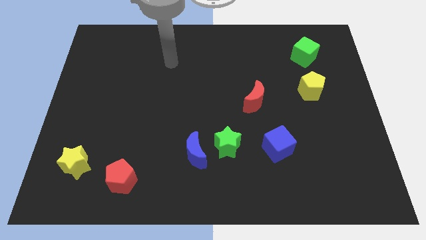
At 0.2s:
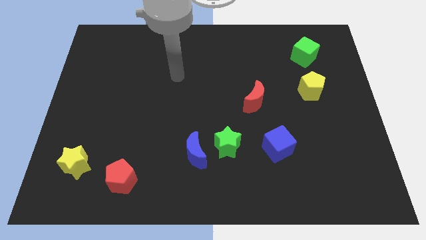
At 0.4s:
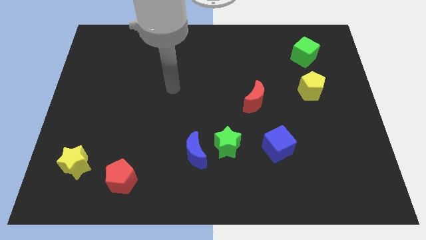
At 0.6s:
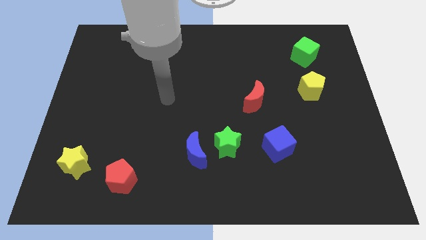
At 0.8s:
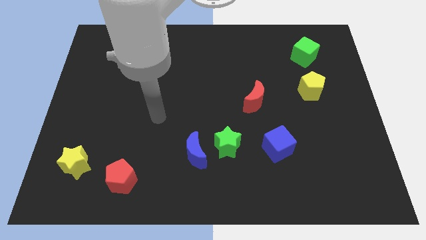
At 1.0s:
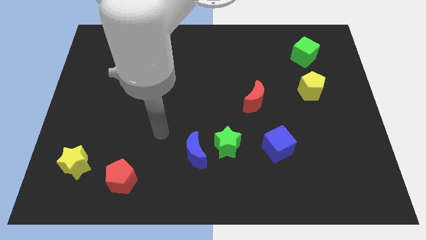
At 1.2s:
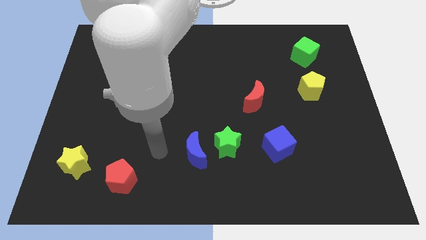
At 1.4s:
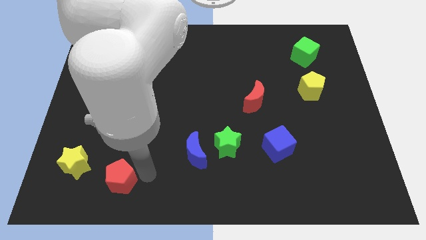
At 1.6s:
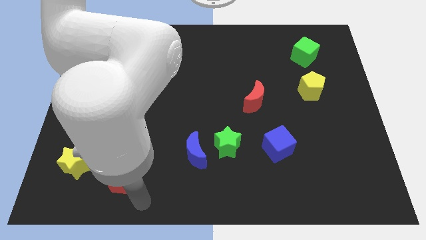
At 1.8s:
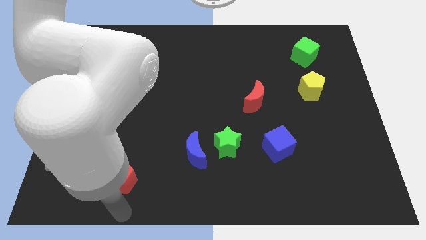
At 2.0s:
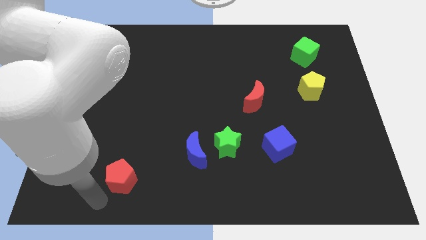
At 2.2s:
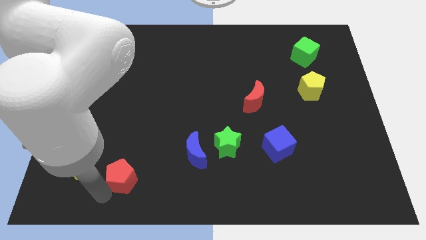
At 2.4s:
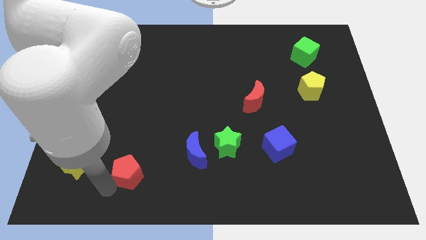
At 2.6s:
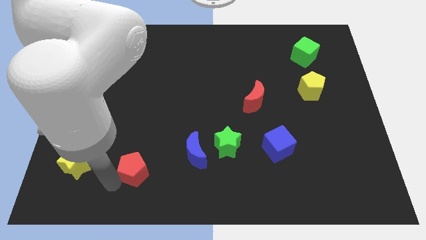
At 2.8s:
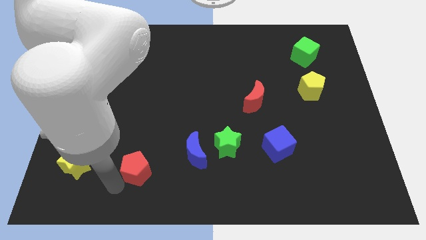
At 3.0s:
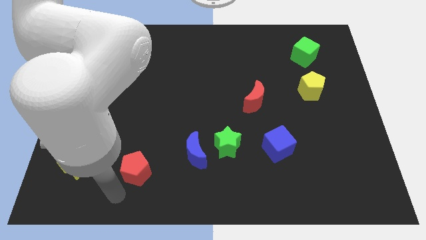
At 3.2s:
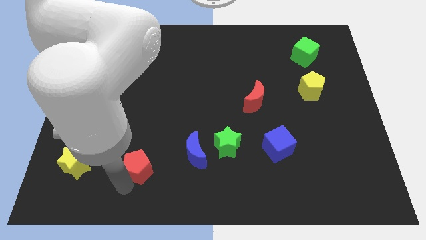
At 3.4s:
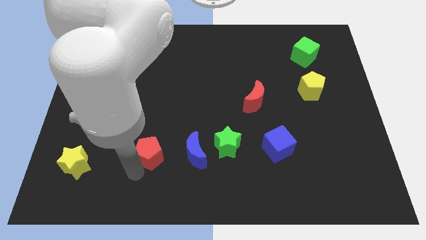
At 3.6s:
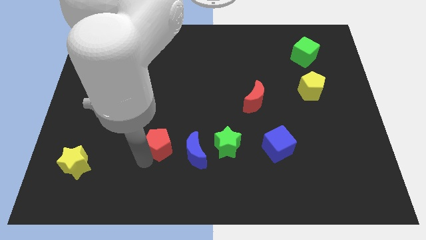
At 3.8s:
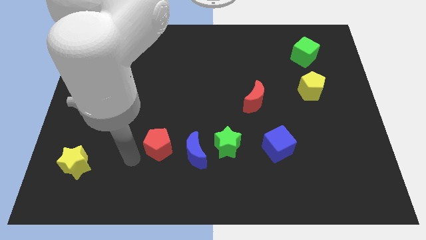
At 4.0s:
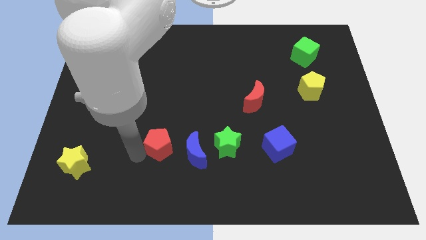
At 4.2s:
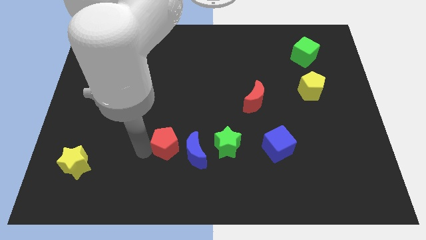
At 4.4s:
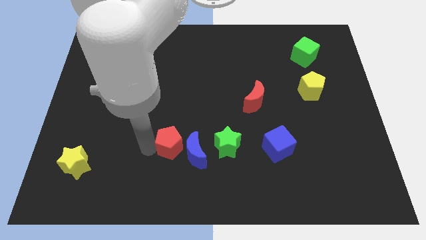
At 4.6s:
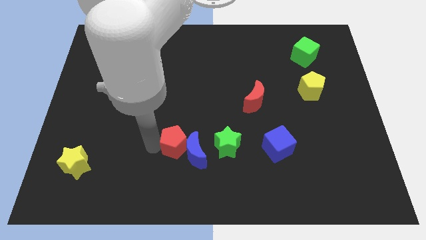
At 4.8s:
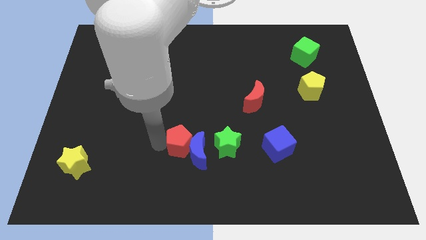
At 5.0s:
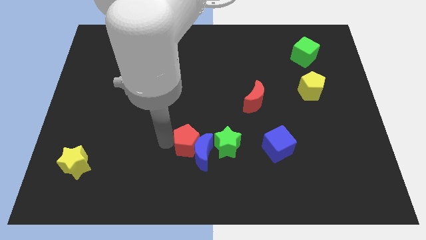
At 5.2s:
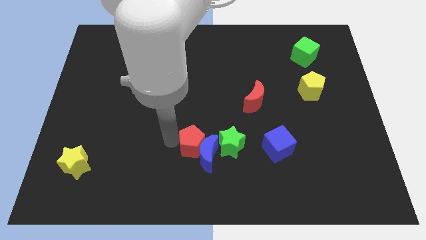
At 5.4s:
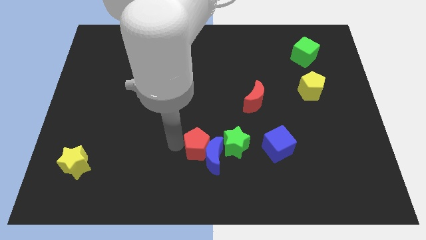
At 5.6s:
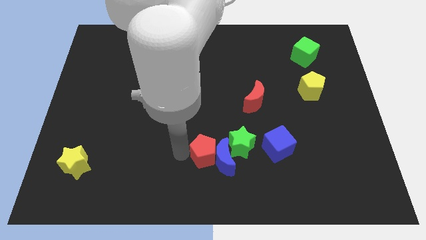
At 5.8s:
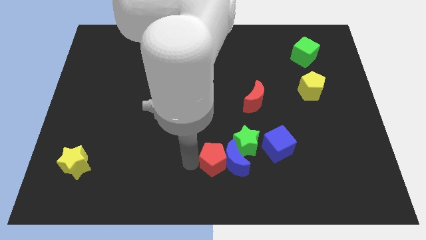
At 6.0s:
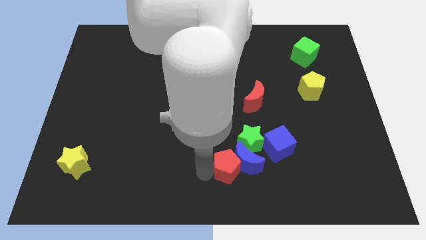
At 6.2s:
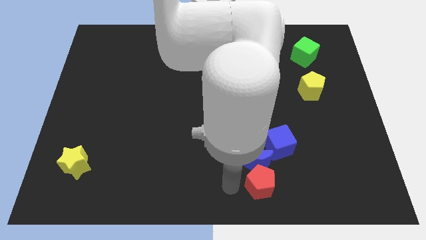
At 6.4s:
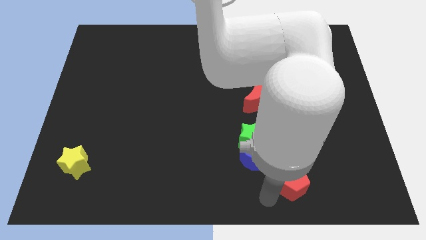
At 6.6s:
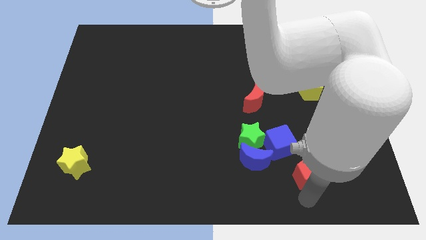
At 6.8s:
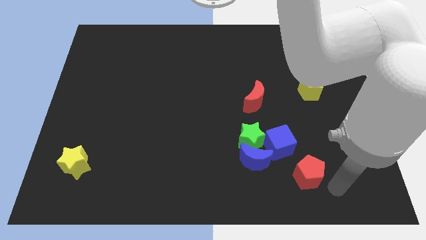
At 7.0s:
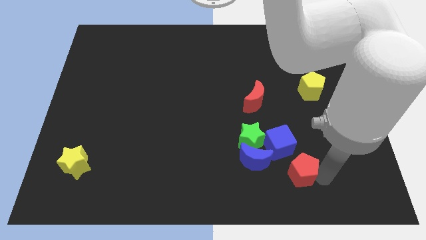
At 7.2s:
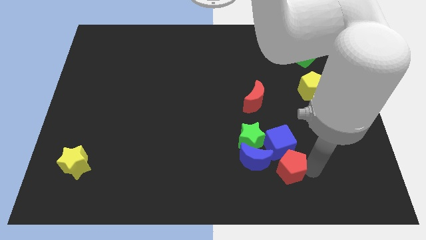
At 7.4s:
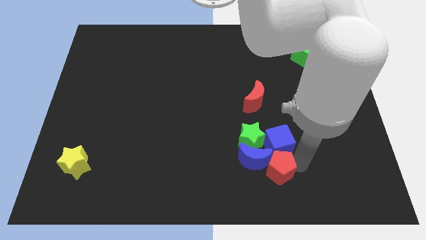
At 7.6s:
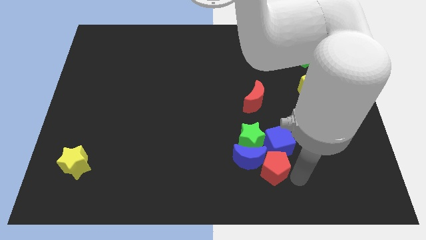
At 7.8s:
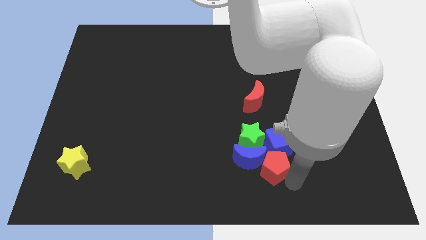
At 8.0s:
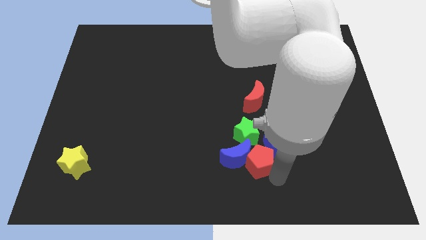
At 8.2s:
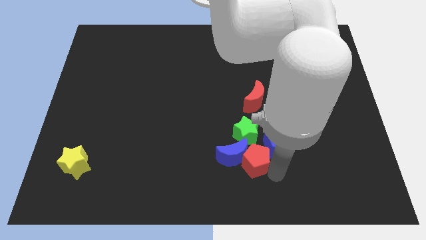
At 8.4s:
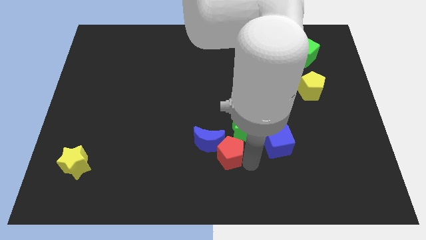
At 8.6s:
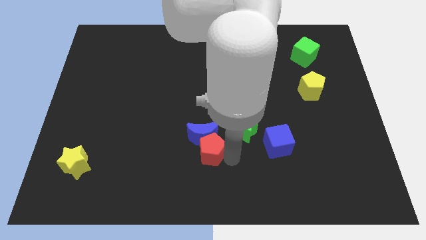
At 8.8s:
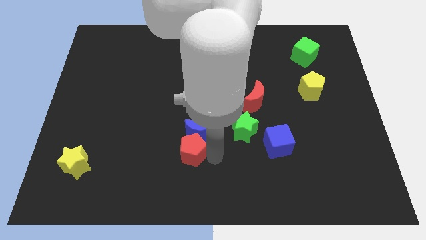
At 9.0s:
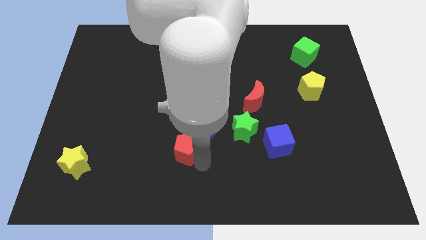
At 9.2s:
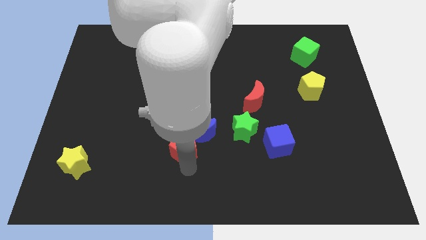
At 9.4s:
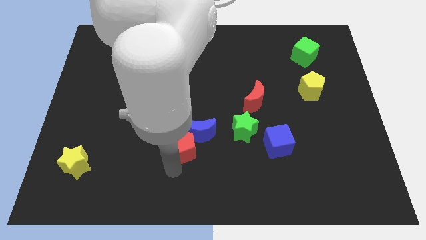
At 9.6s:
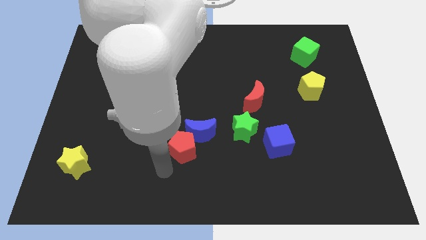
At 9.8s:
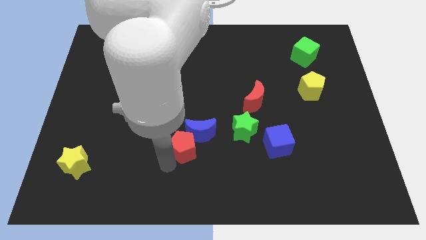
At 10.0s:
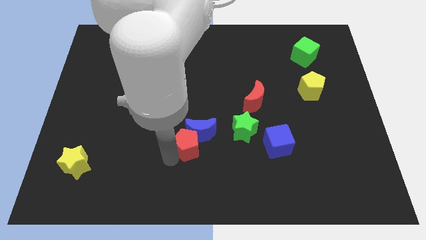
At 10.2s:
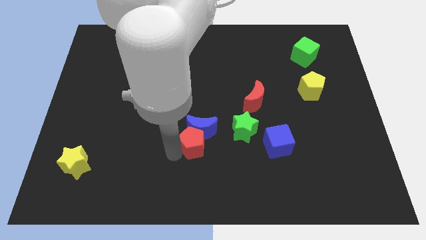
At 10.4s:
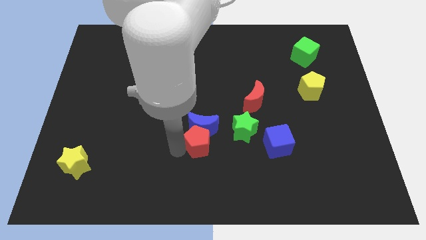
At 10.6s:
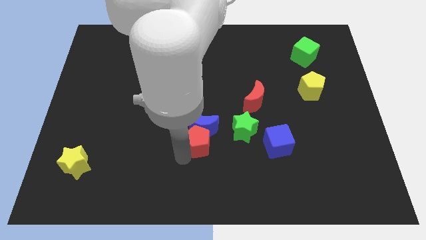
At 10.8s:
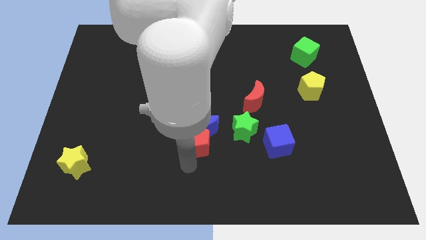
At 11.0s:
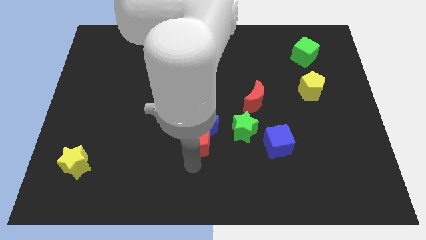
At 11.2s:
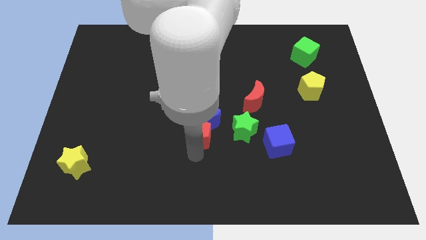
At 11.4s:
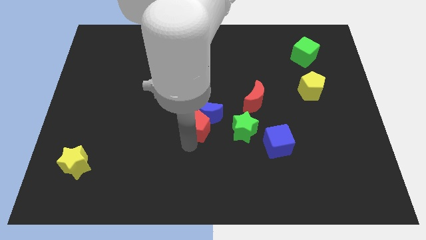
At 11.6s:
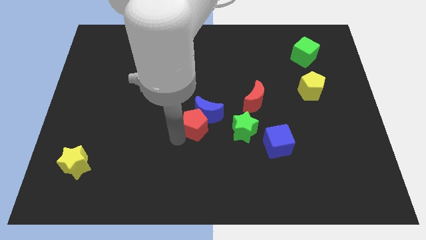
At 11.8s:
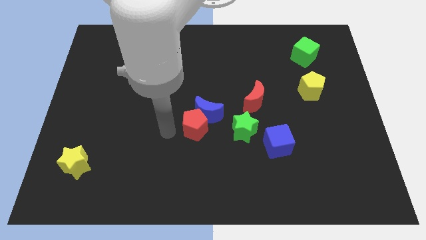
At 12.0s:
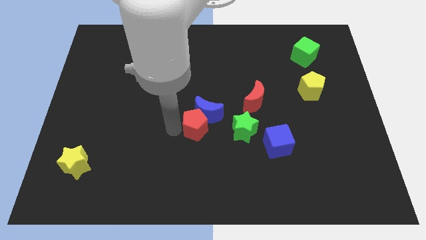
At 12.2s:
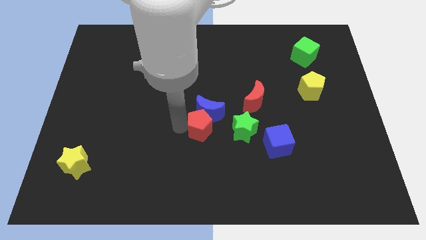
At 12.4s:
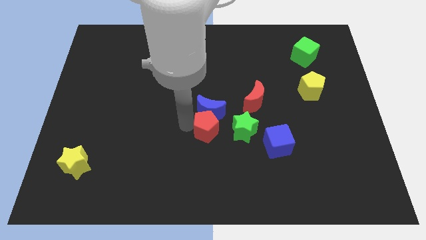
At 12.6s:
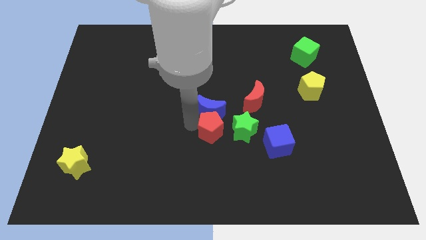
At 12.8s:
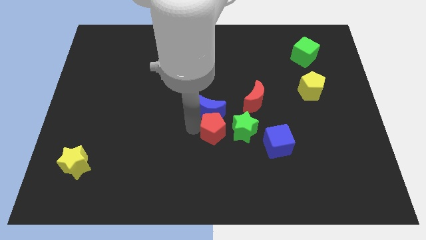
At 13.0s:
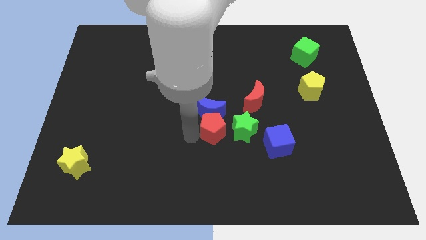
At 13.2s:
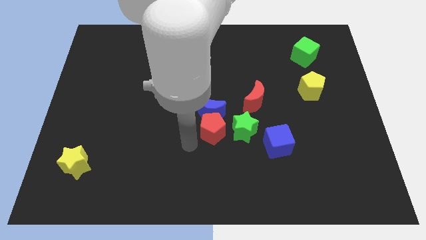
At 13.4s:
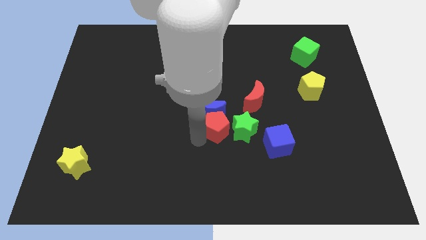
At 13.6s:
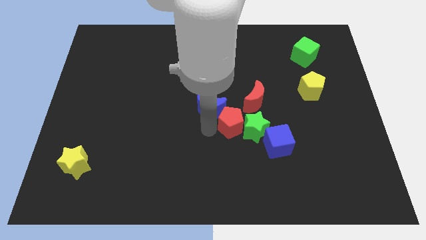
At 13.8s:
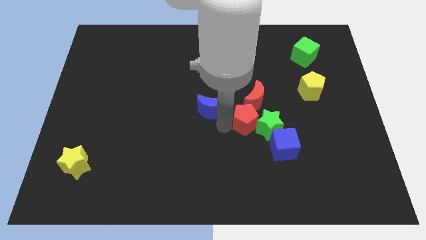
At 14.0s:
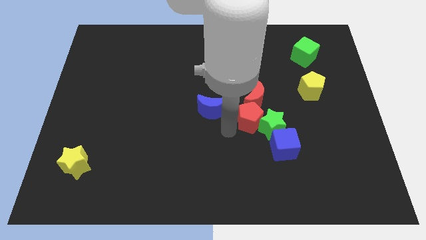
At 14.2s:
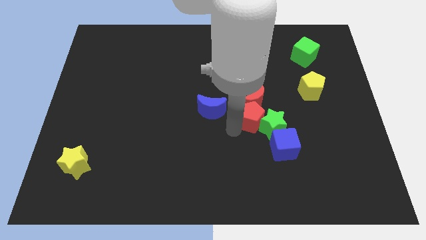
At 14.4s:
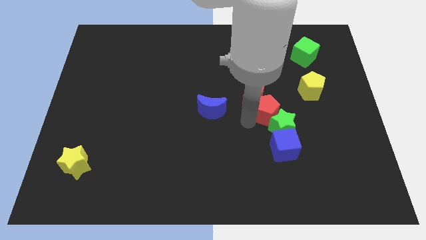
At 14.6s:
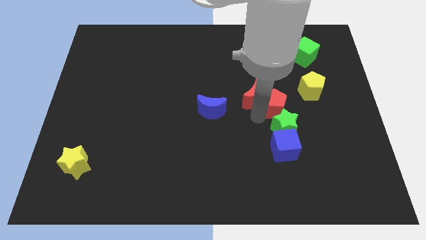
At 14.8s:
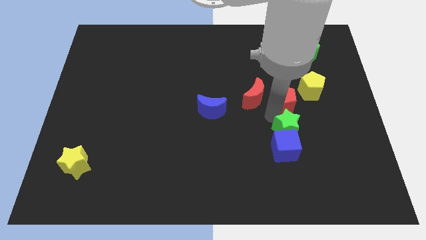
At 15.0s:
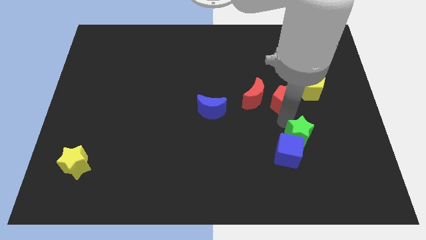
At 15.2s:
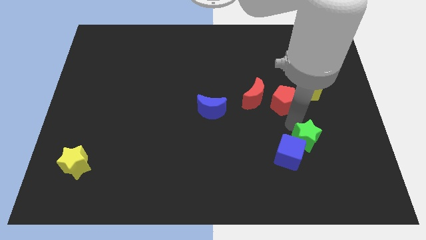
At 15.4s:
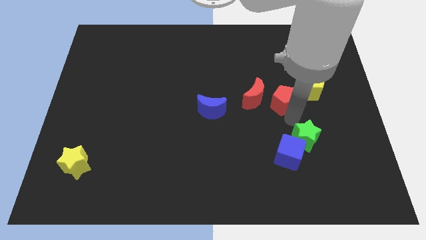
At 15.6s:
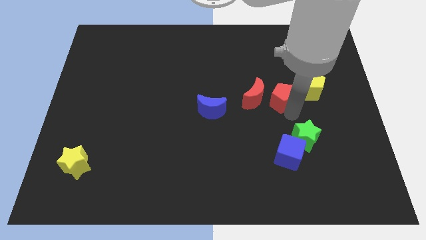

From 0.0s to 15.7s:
push the red pentagon diagonally up and to the right of the red moon
